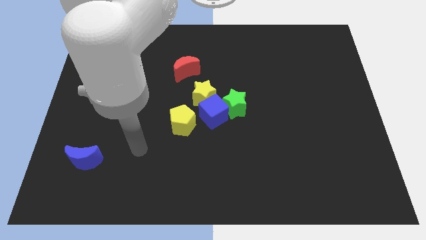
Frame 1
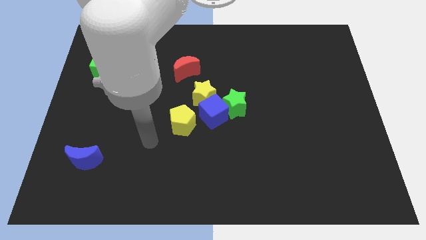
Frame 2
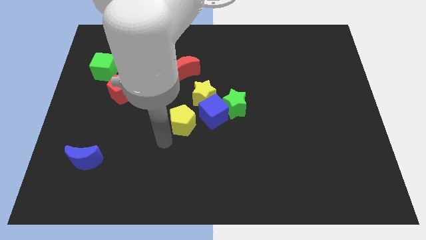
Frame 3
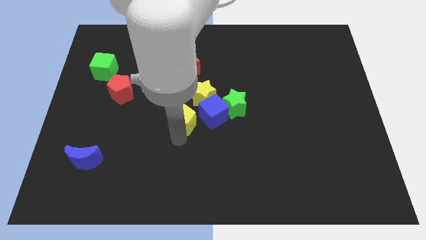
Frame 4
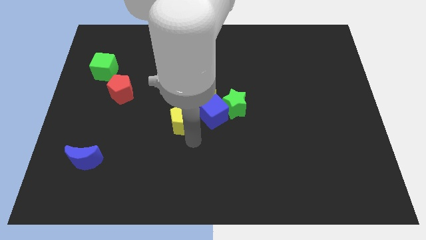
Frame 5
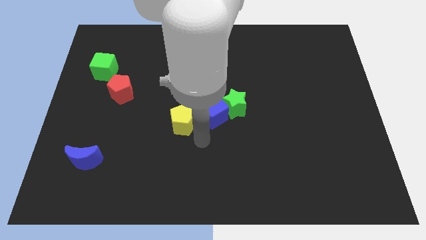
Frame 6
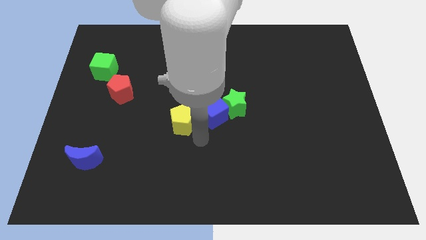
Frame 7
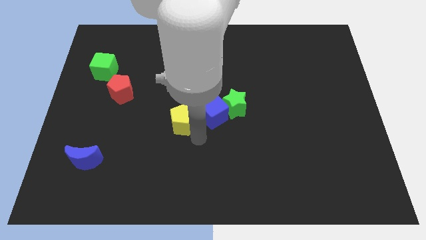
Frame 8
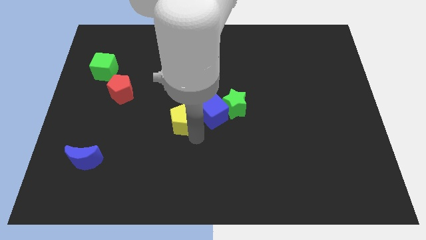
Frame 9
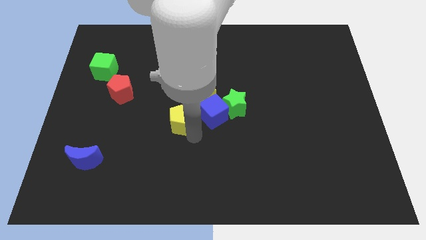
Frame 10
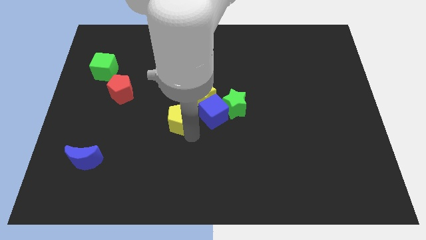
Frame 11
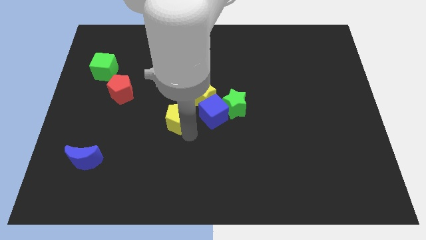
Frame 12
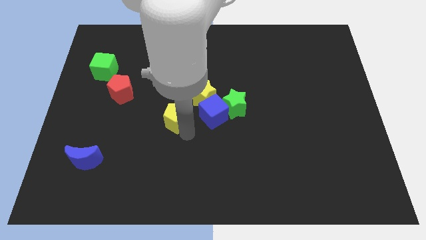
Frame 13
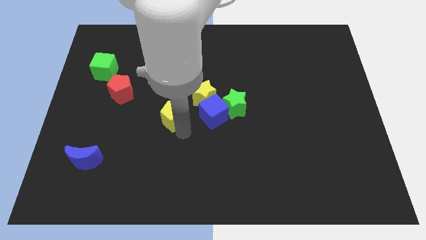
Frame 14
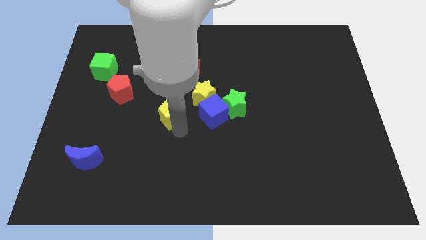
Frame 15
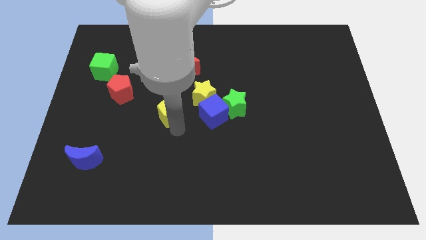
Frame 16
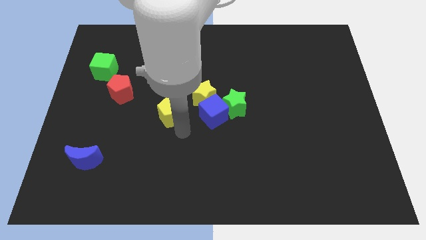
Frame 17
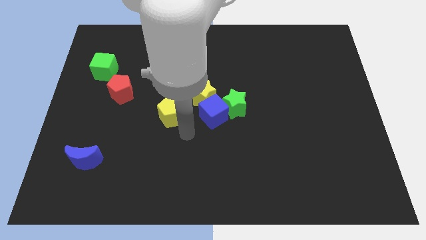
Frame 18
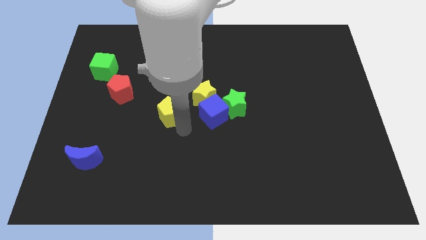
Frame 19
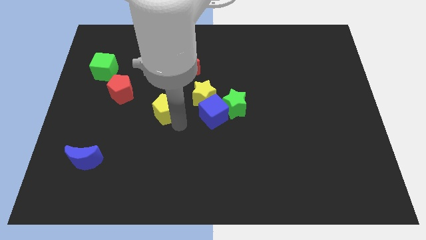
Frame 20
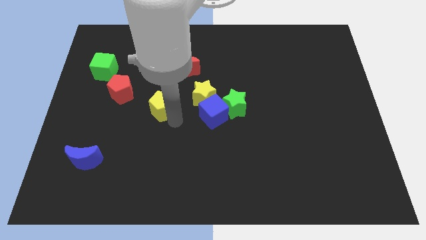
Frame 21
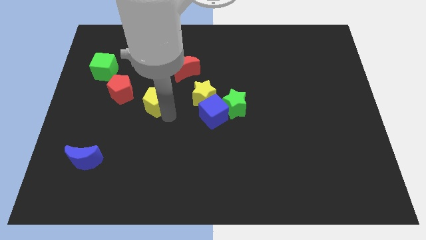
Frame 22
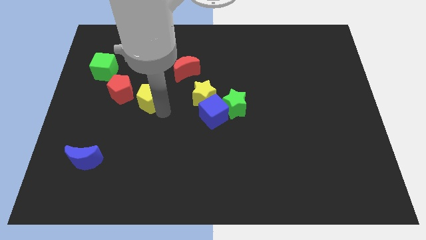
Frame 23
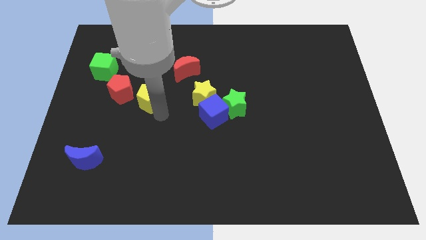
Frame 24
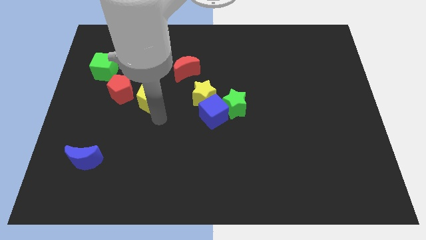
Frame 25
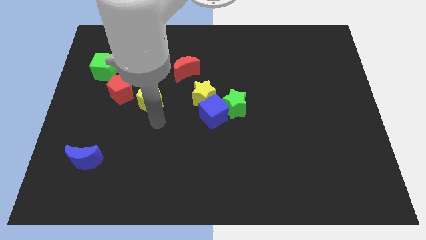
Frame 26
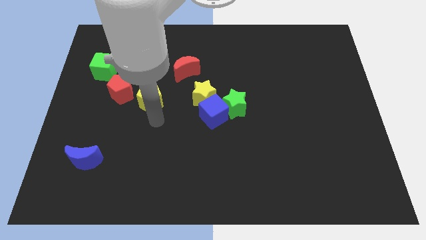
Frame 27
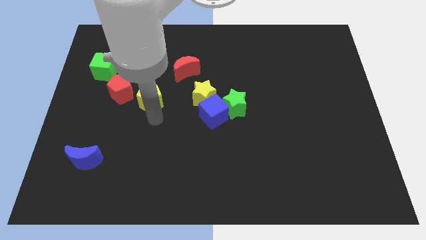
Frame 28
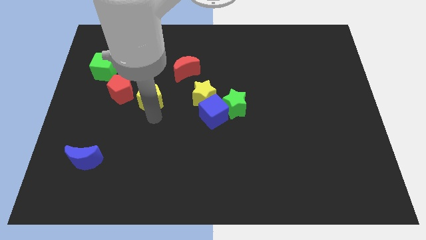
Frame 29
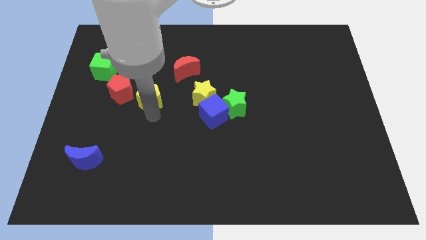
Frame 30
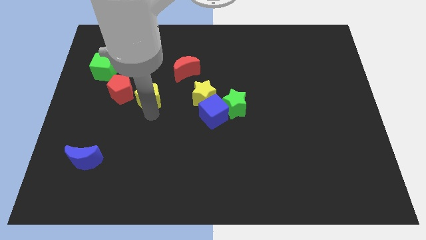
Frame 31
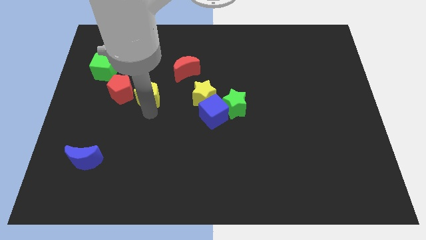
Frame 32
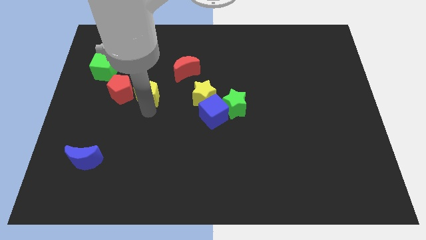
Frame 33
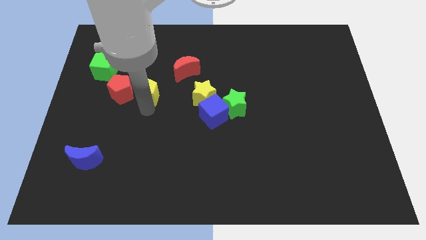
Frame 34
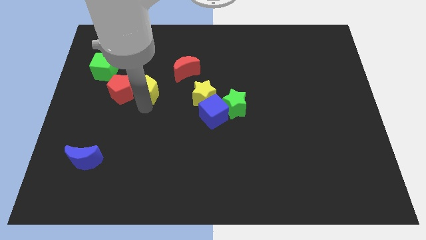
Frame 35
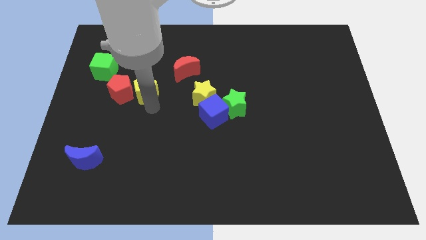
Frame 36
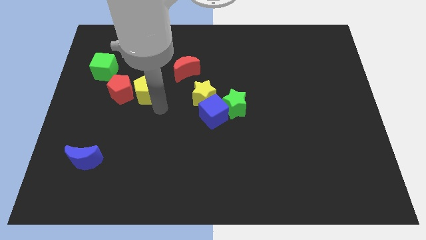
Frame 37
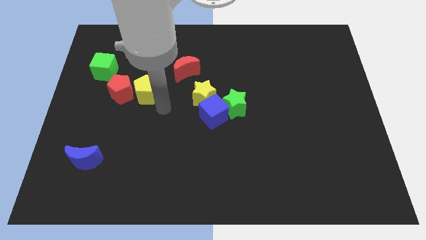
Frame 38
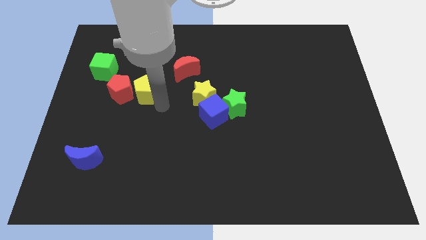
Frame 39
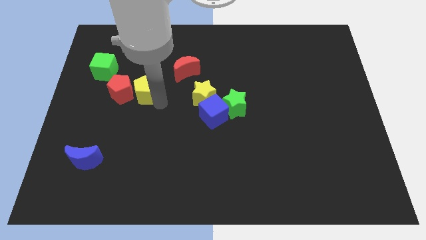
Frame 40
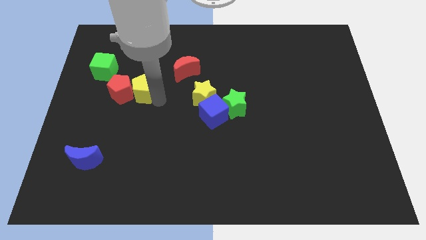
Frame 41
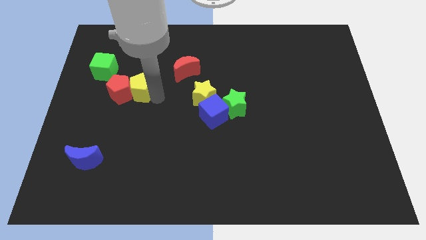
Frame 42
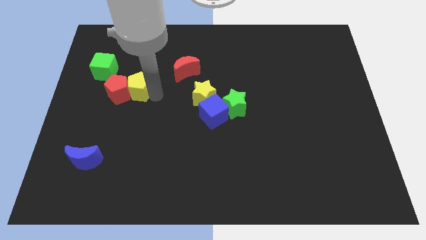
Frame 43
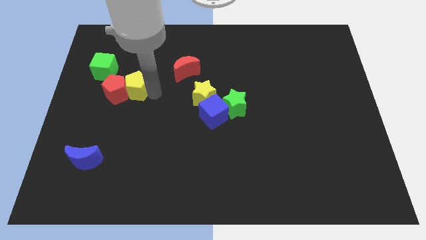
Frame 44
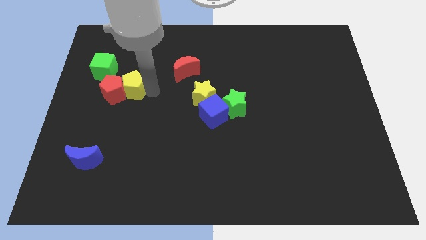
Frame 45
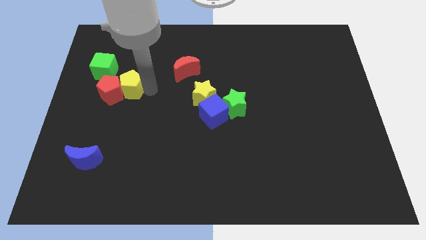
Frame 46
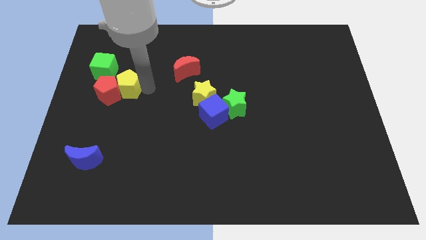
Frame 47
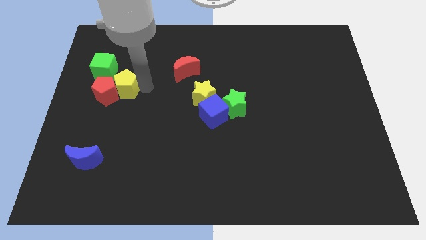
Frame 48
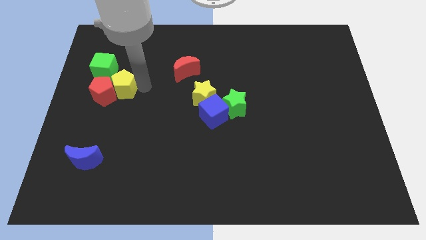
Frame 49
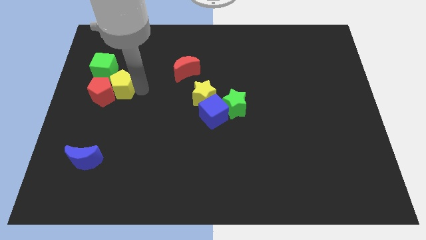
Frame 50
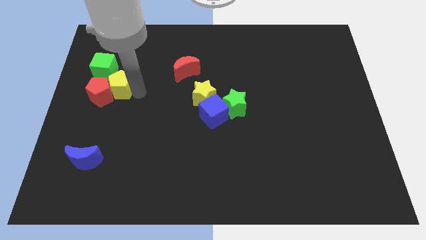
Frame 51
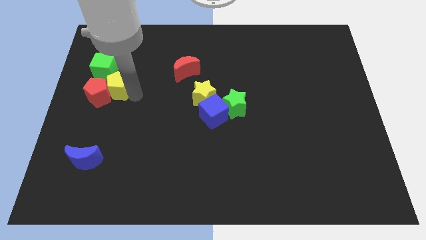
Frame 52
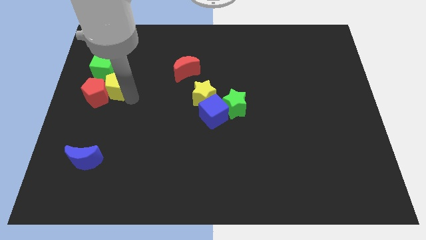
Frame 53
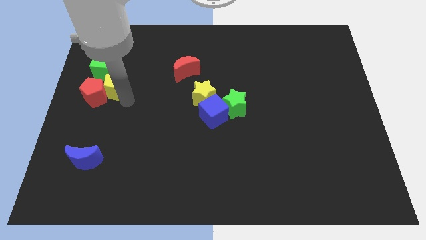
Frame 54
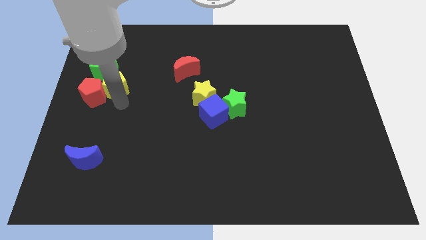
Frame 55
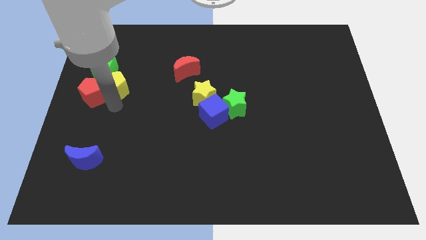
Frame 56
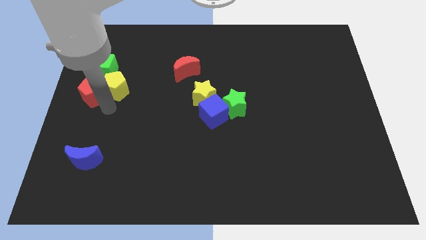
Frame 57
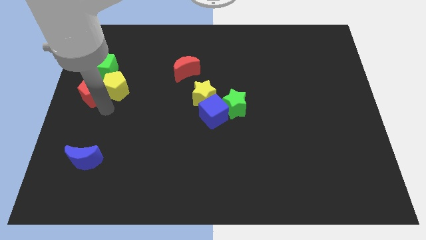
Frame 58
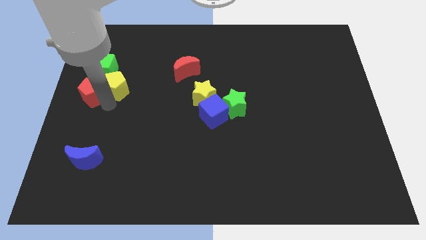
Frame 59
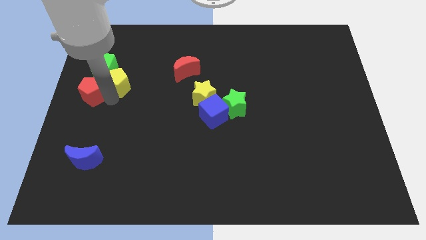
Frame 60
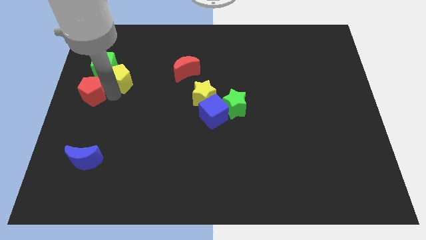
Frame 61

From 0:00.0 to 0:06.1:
slide the yellow pentagon next to the green cube
